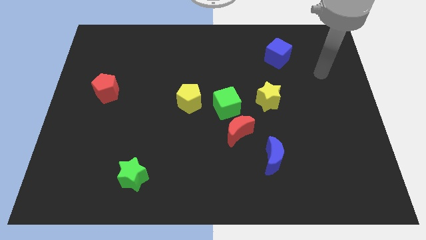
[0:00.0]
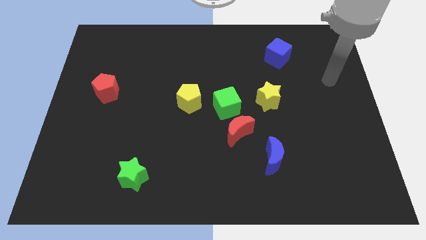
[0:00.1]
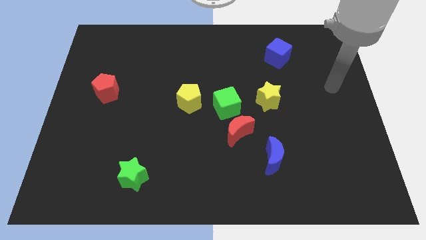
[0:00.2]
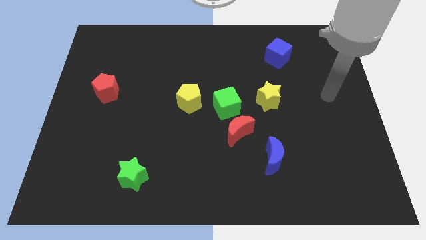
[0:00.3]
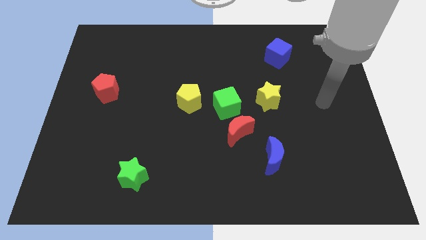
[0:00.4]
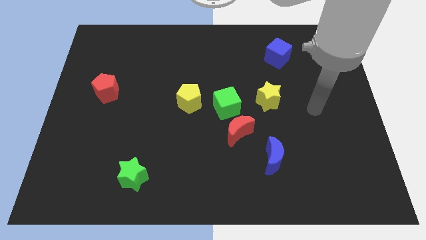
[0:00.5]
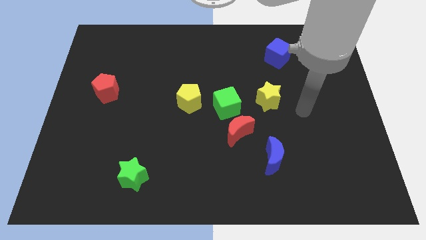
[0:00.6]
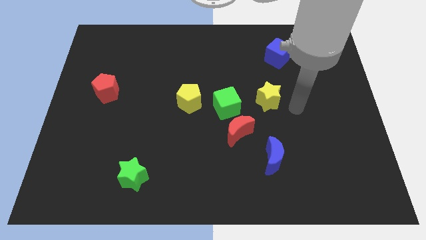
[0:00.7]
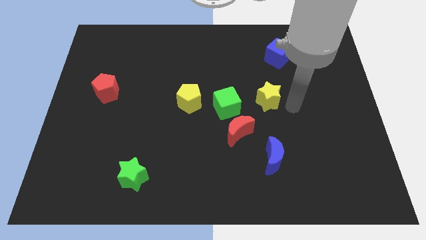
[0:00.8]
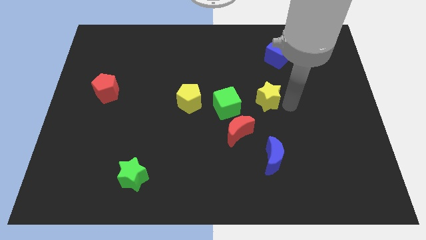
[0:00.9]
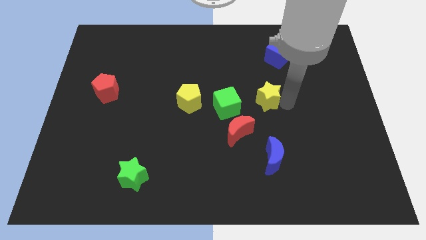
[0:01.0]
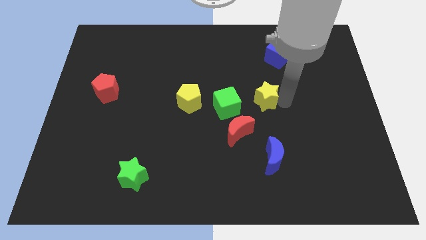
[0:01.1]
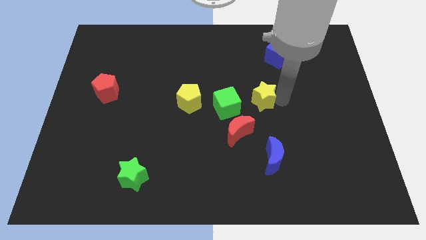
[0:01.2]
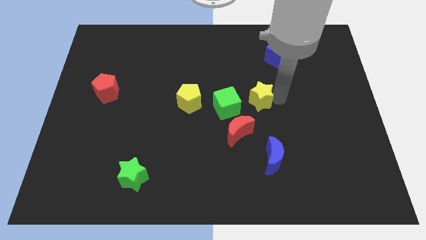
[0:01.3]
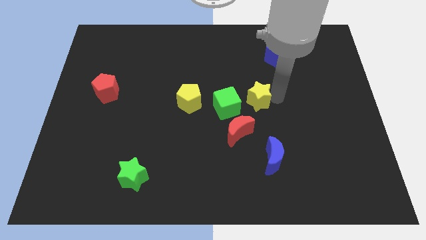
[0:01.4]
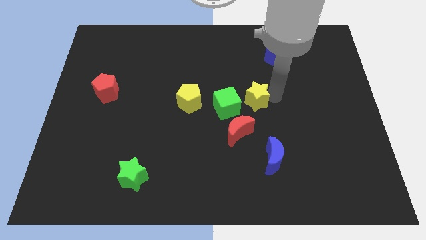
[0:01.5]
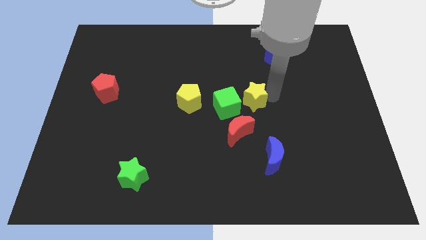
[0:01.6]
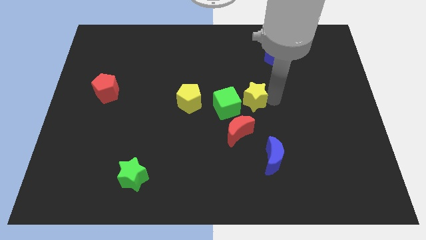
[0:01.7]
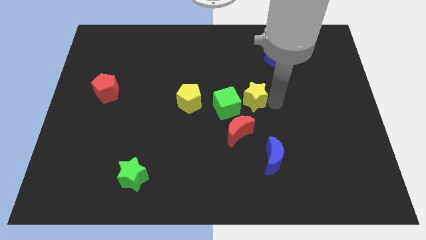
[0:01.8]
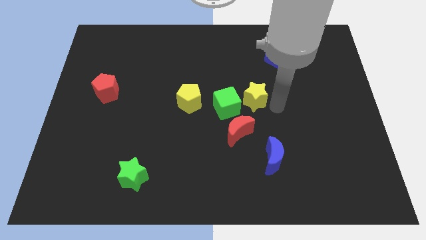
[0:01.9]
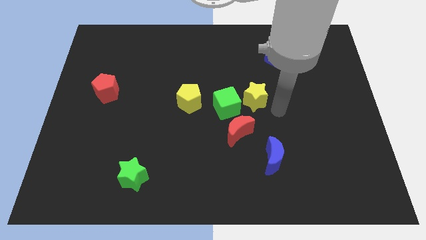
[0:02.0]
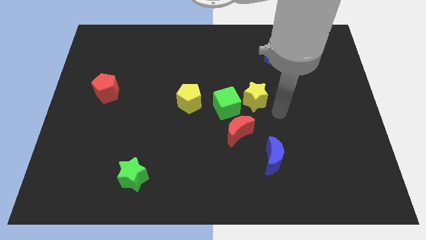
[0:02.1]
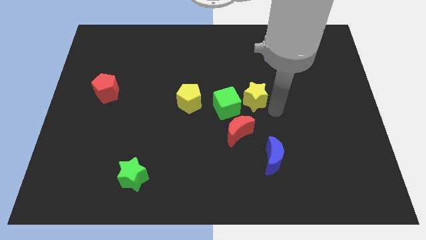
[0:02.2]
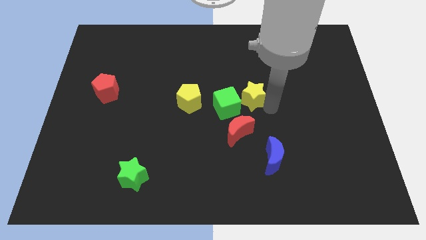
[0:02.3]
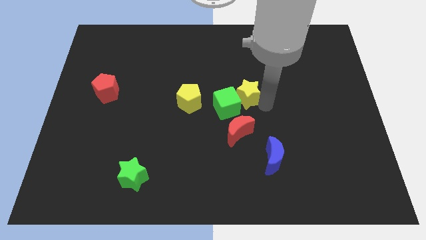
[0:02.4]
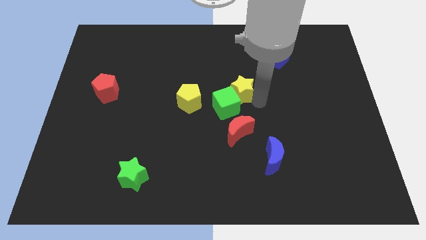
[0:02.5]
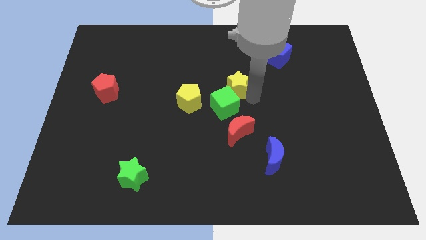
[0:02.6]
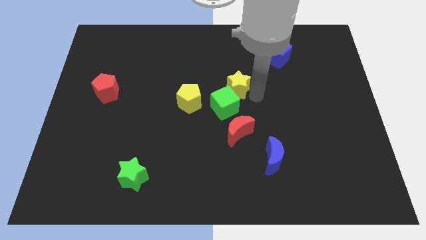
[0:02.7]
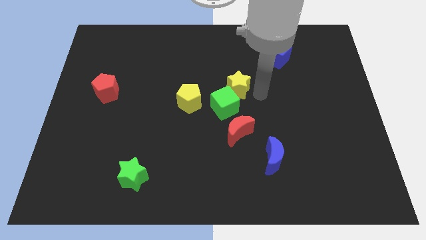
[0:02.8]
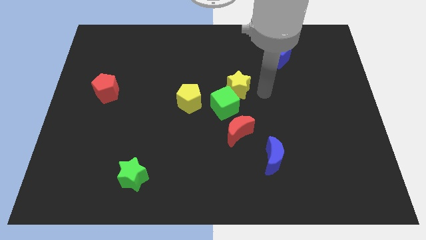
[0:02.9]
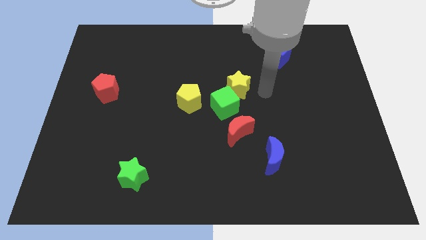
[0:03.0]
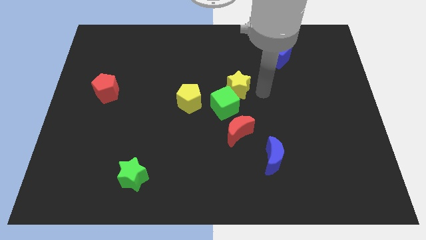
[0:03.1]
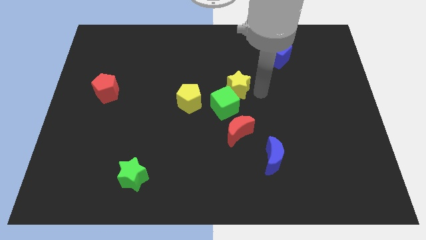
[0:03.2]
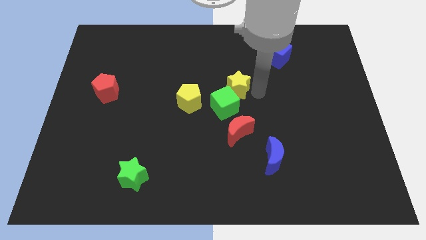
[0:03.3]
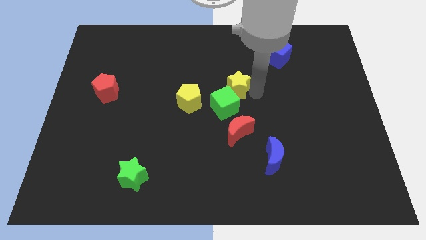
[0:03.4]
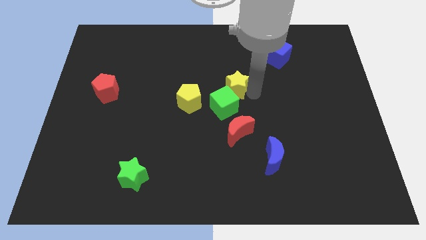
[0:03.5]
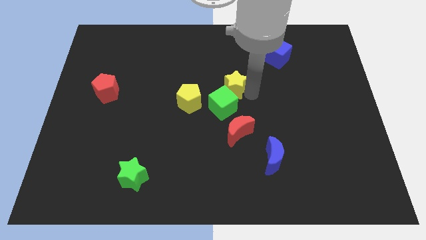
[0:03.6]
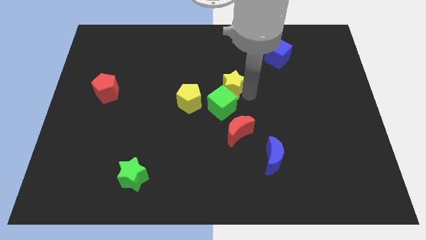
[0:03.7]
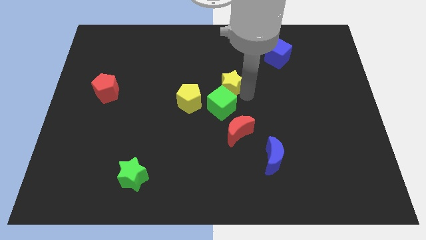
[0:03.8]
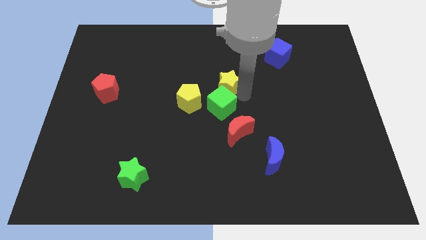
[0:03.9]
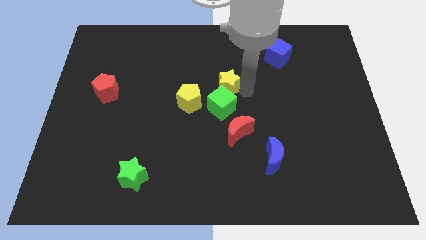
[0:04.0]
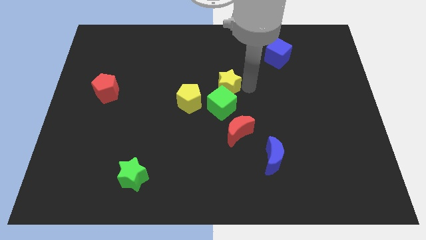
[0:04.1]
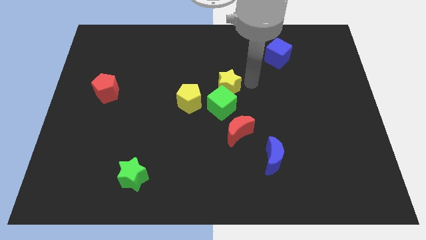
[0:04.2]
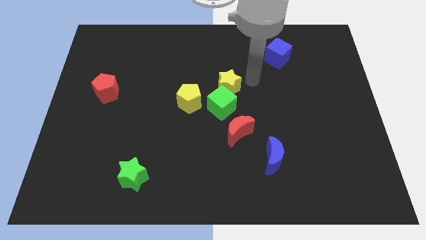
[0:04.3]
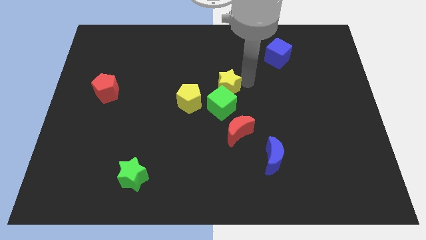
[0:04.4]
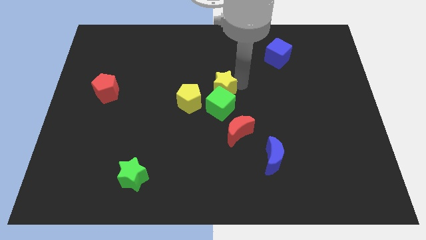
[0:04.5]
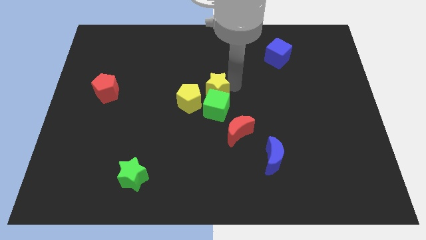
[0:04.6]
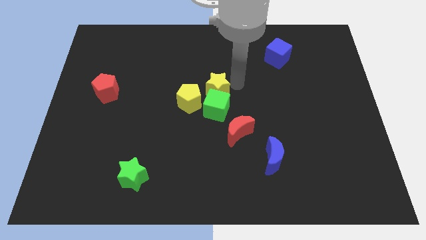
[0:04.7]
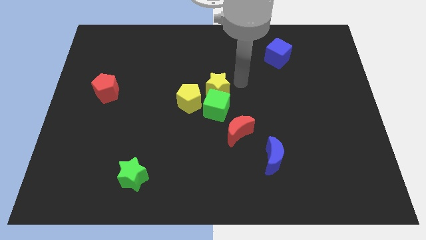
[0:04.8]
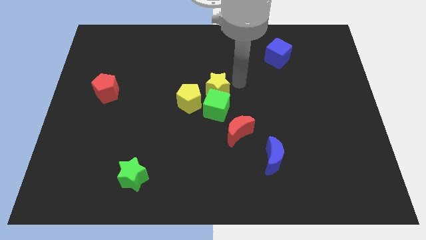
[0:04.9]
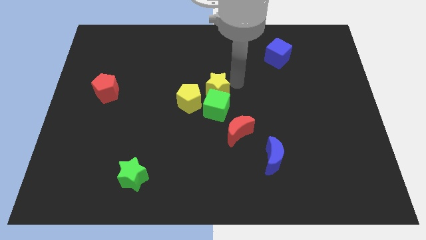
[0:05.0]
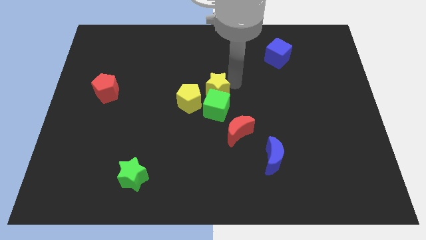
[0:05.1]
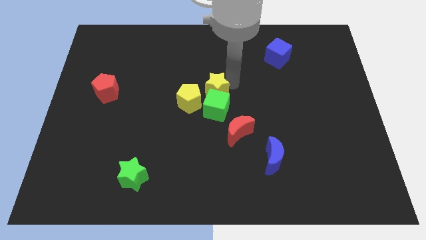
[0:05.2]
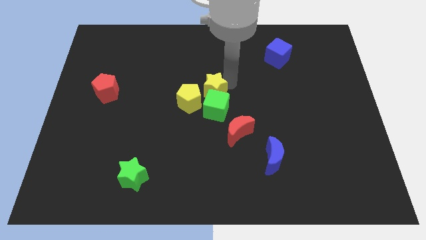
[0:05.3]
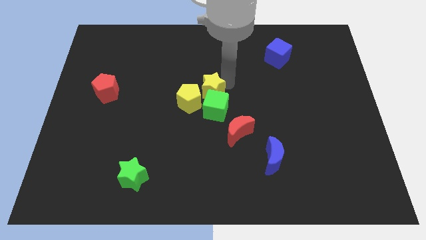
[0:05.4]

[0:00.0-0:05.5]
push the yellow star next to the yellow pentagon

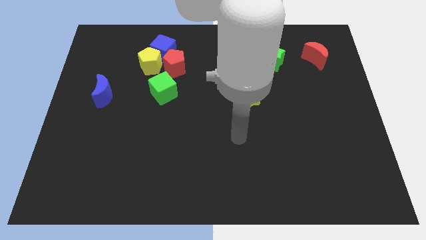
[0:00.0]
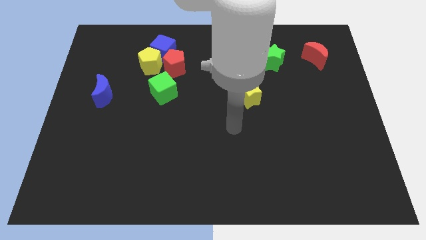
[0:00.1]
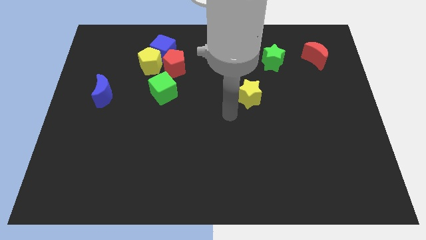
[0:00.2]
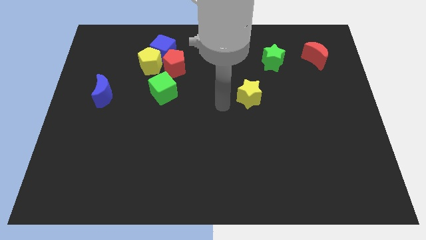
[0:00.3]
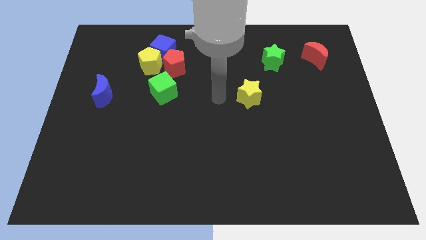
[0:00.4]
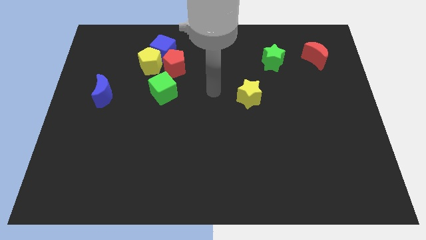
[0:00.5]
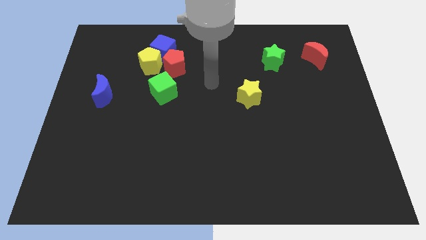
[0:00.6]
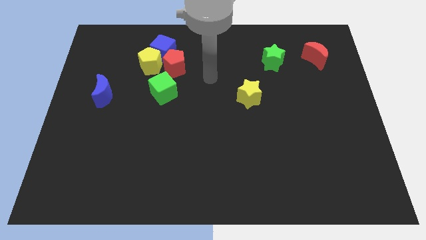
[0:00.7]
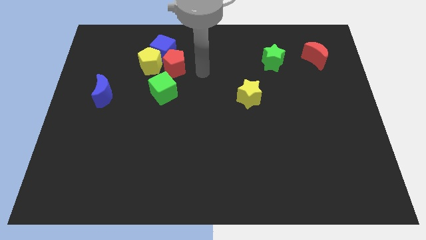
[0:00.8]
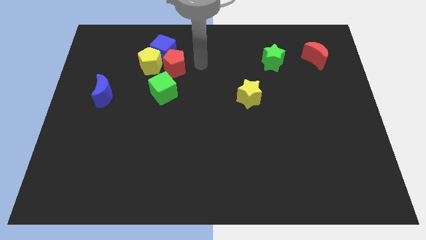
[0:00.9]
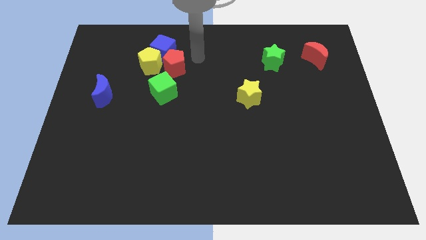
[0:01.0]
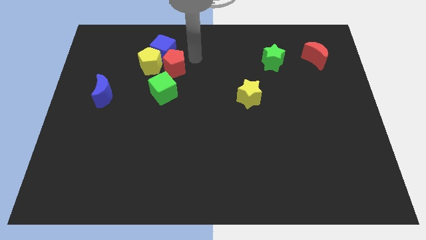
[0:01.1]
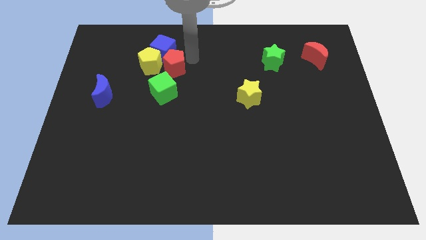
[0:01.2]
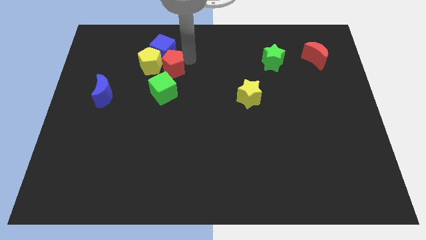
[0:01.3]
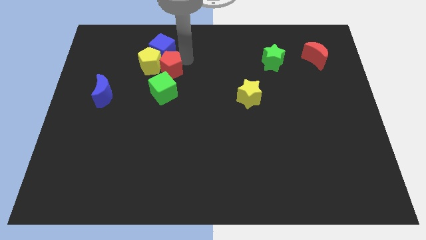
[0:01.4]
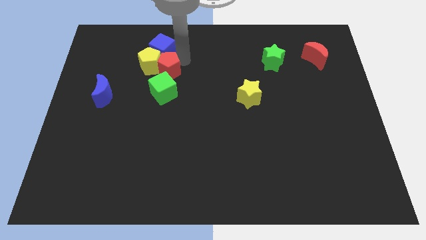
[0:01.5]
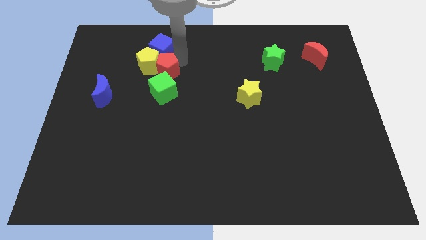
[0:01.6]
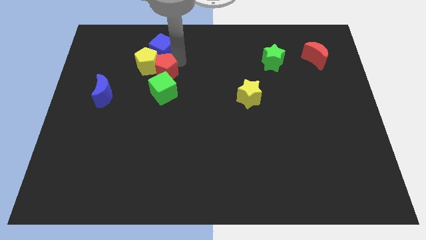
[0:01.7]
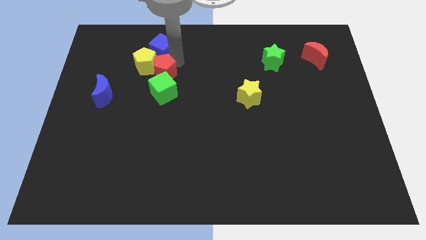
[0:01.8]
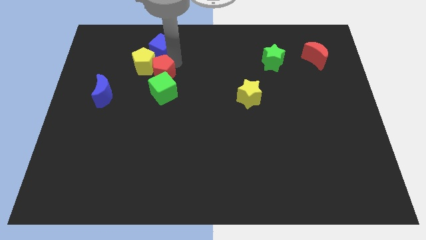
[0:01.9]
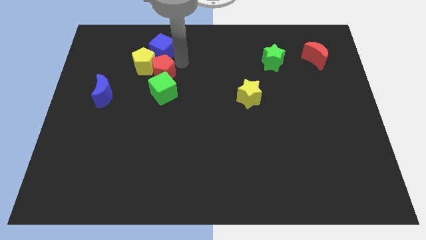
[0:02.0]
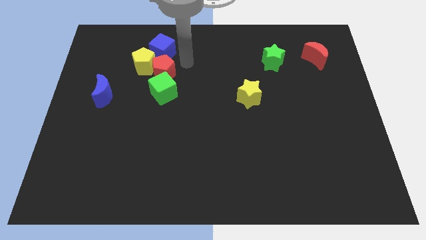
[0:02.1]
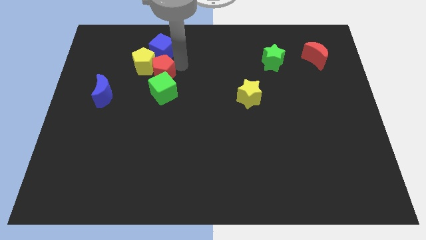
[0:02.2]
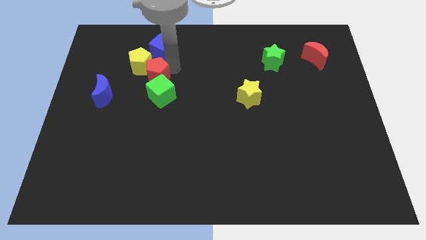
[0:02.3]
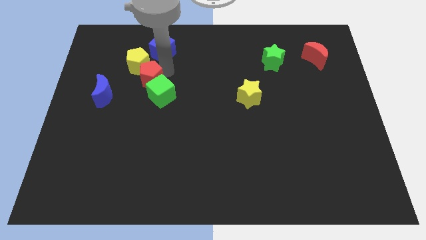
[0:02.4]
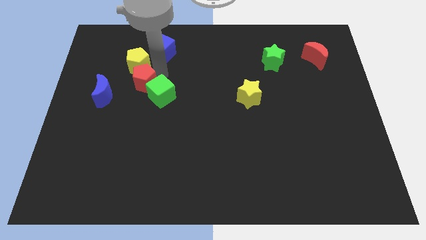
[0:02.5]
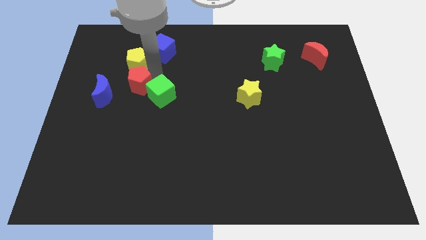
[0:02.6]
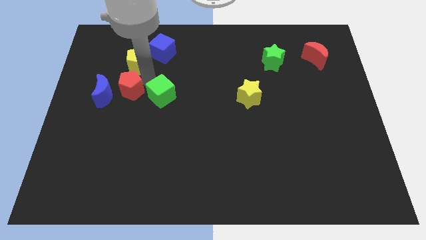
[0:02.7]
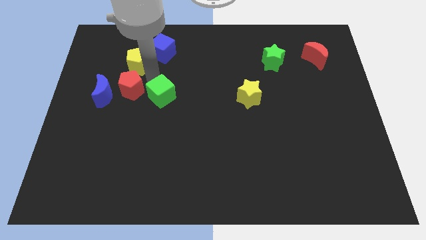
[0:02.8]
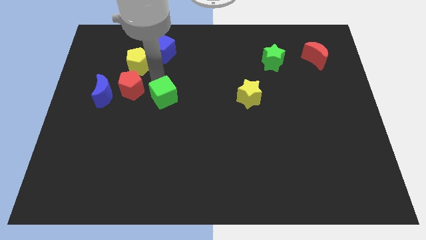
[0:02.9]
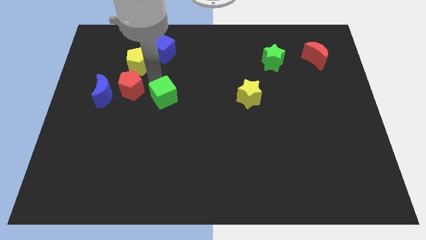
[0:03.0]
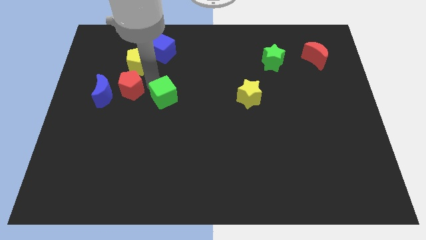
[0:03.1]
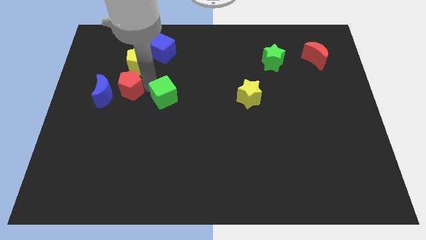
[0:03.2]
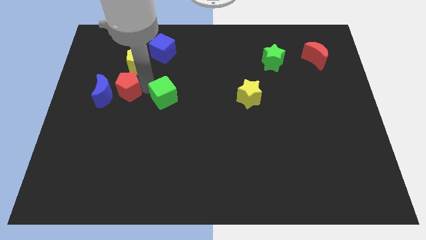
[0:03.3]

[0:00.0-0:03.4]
push the red pentagon towards the blue moon
